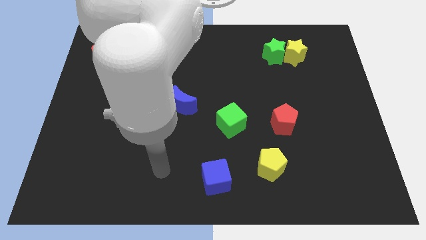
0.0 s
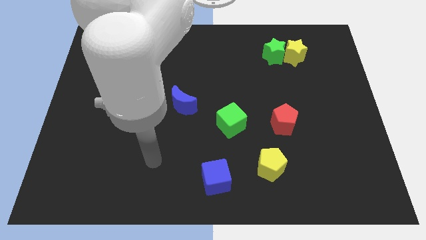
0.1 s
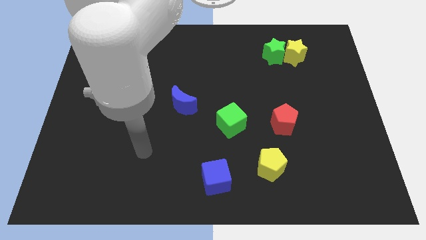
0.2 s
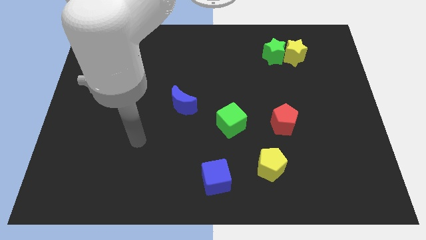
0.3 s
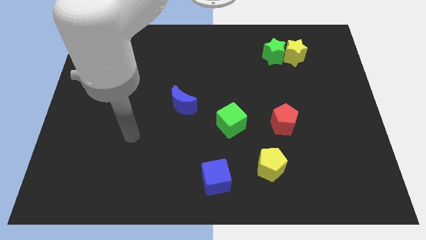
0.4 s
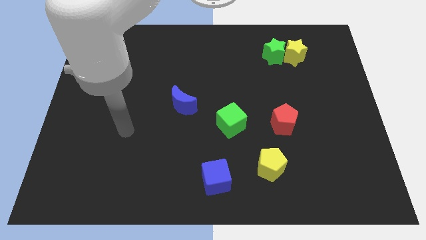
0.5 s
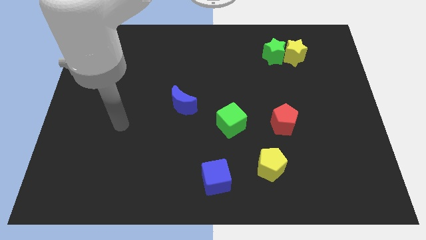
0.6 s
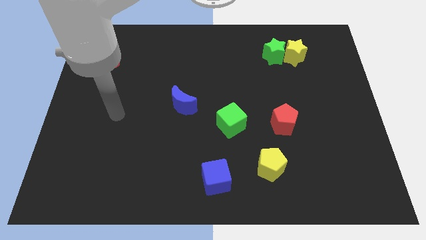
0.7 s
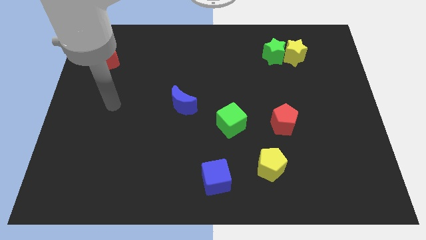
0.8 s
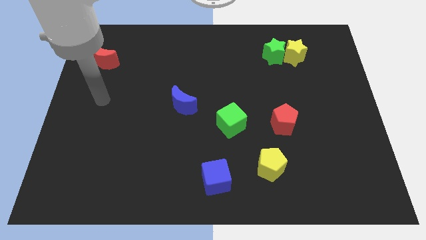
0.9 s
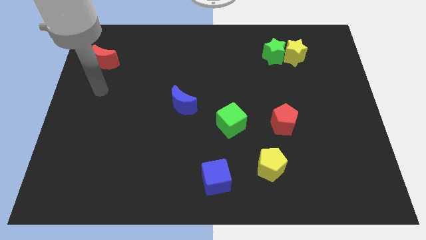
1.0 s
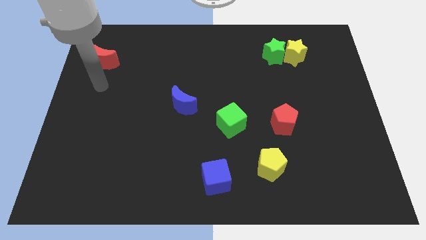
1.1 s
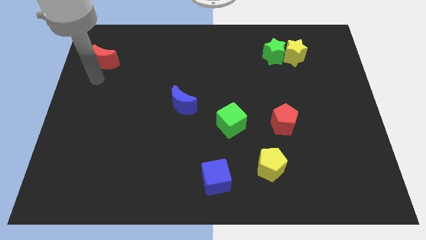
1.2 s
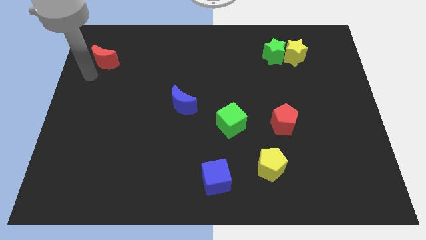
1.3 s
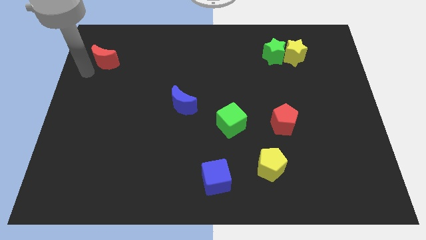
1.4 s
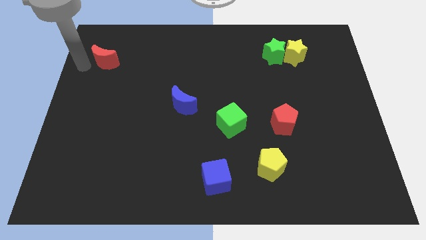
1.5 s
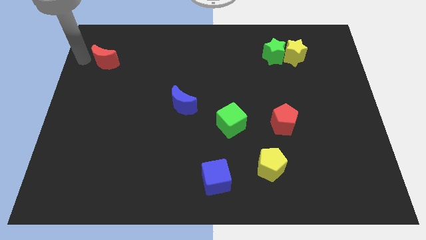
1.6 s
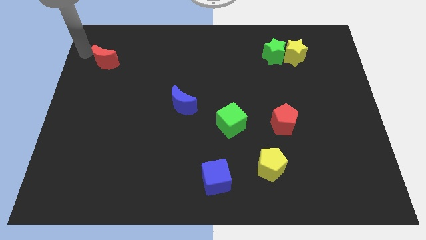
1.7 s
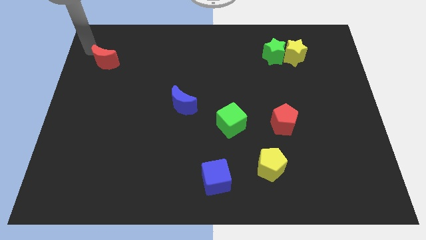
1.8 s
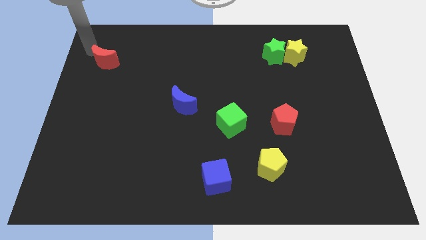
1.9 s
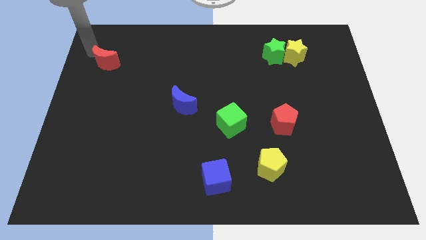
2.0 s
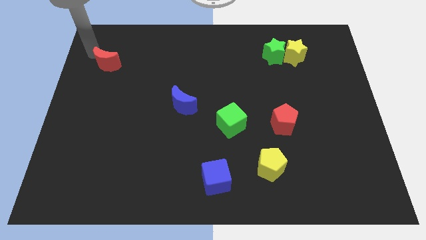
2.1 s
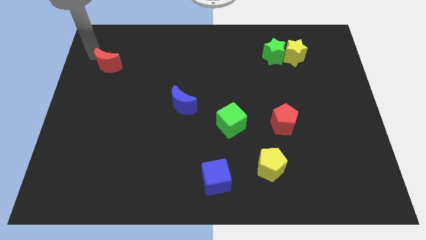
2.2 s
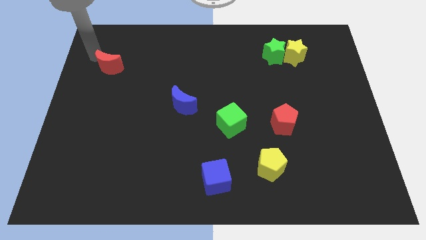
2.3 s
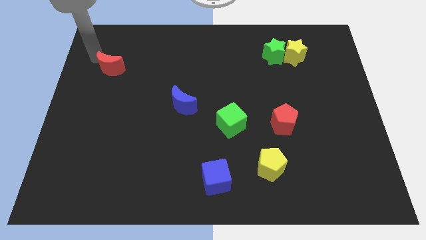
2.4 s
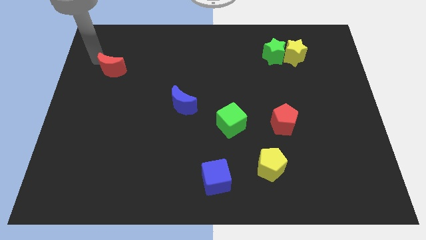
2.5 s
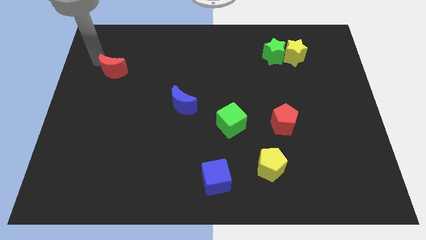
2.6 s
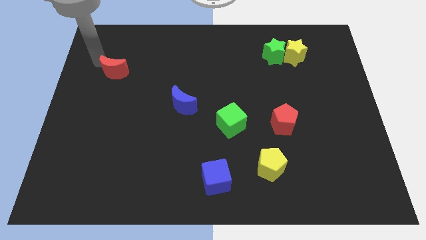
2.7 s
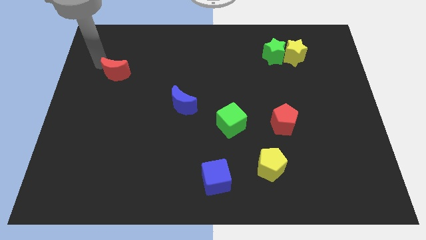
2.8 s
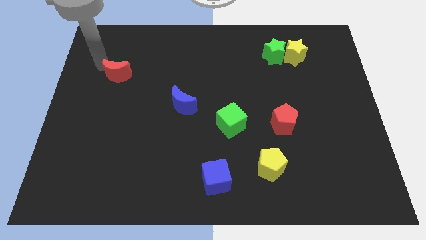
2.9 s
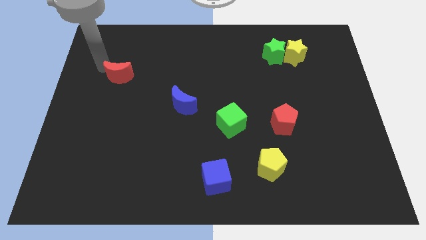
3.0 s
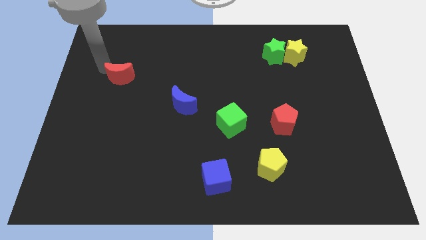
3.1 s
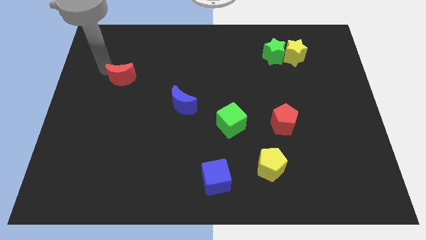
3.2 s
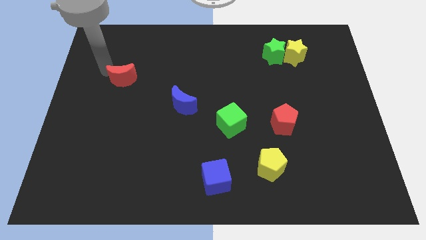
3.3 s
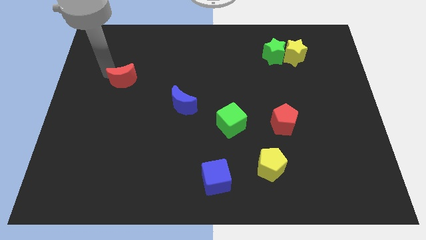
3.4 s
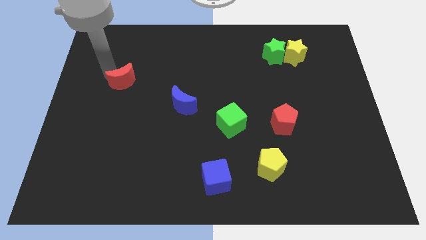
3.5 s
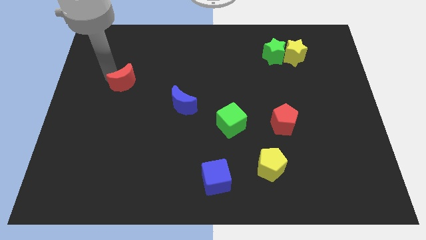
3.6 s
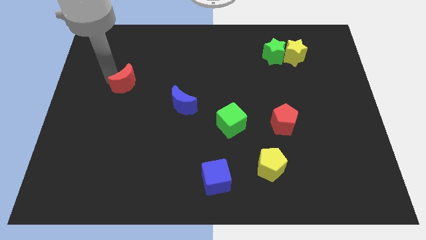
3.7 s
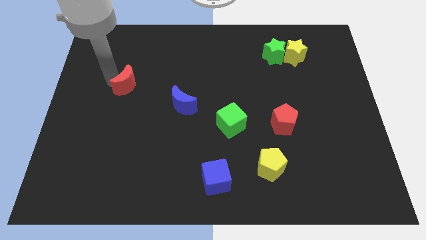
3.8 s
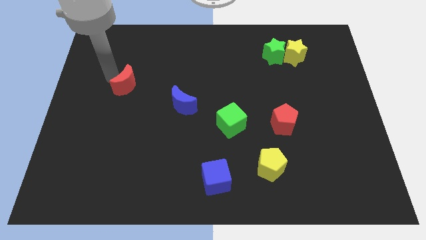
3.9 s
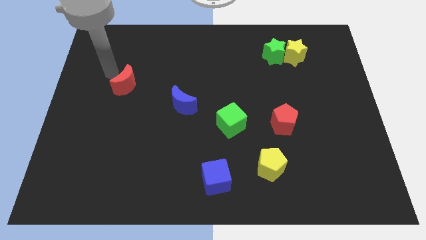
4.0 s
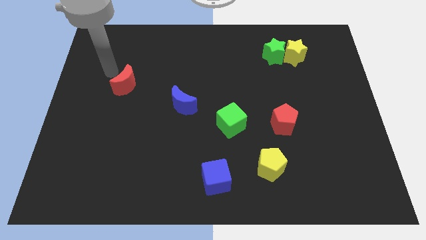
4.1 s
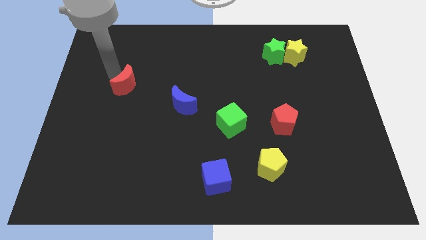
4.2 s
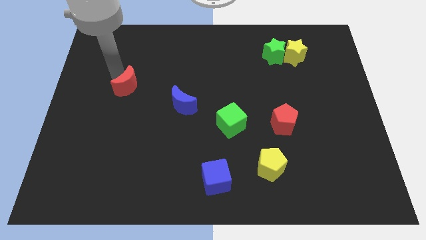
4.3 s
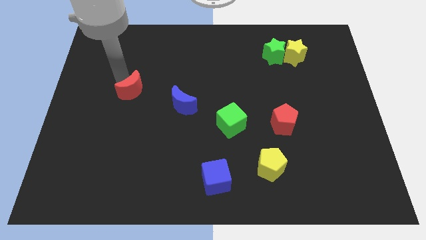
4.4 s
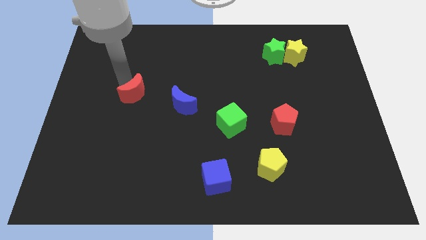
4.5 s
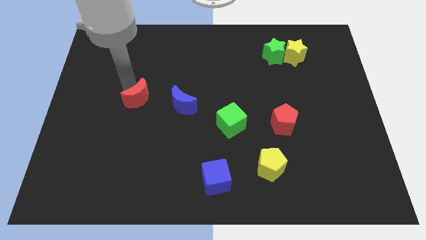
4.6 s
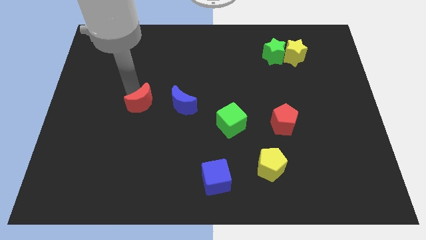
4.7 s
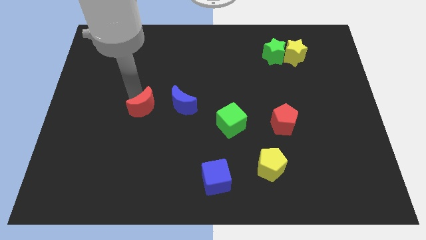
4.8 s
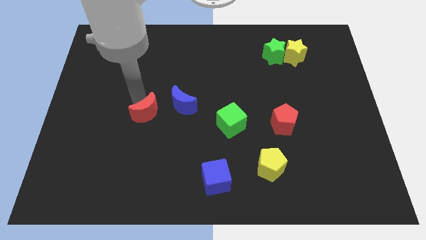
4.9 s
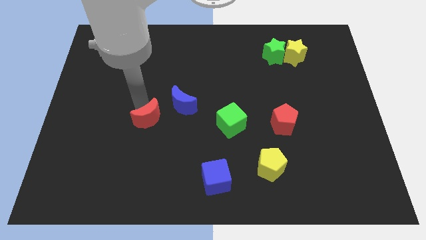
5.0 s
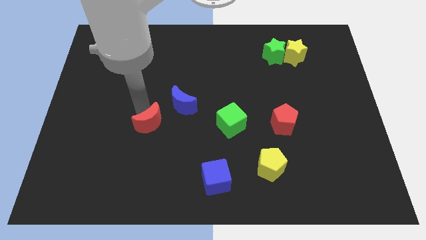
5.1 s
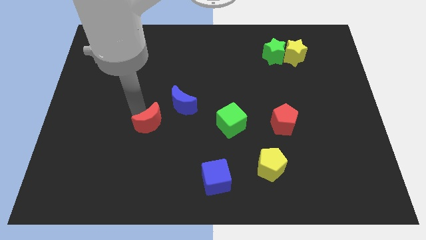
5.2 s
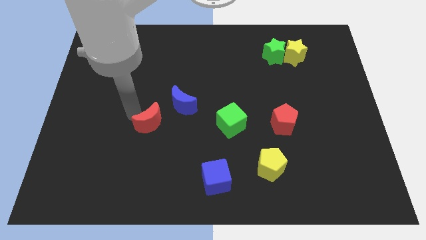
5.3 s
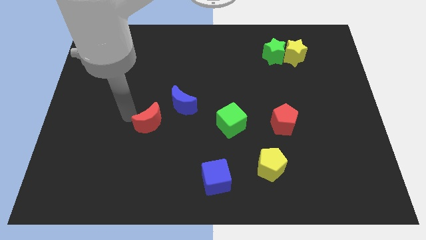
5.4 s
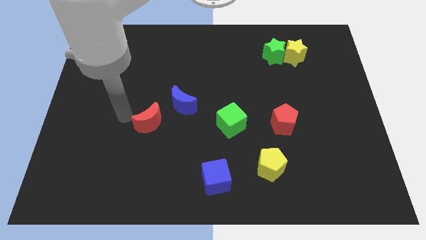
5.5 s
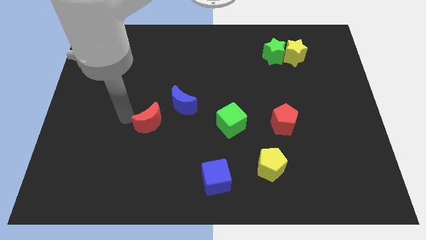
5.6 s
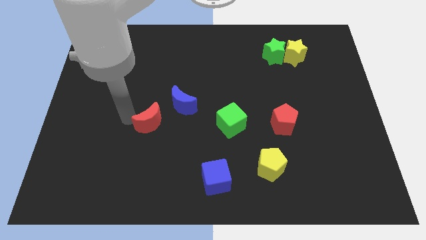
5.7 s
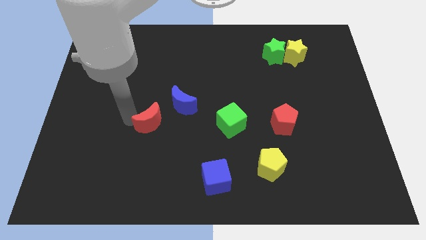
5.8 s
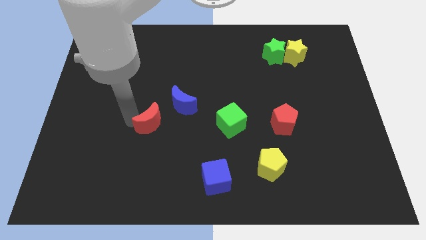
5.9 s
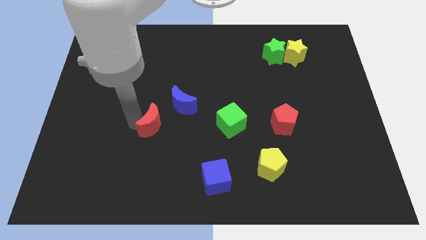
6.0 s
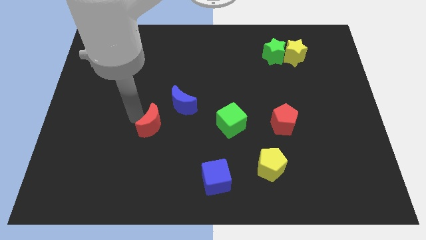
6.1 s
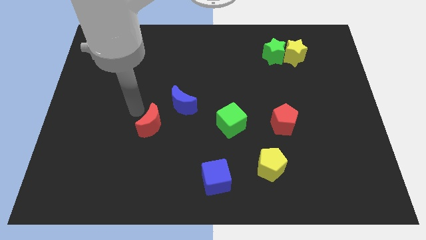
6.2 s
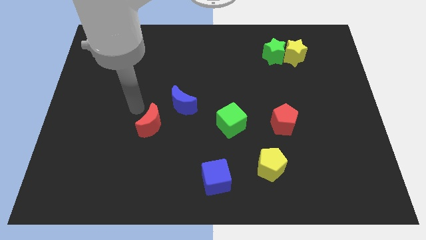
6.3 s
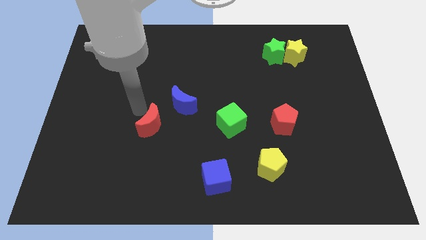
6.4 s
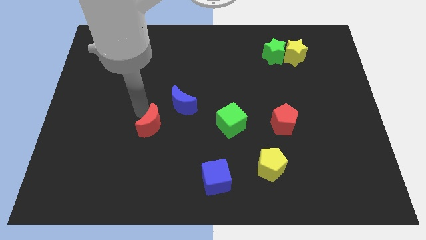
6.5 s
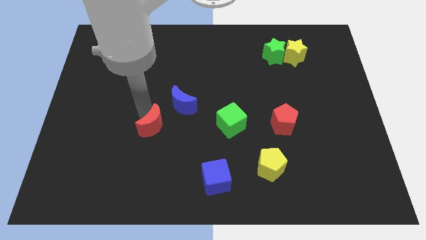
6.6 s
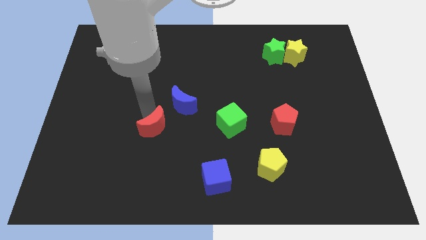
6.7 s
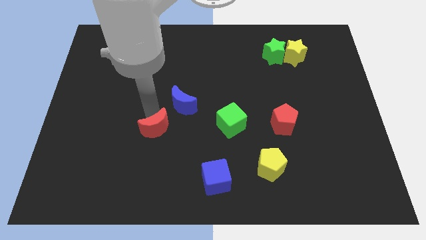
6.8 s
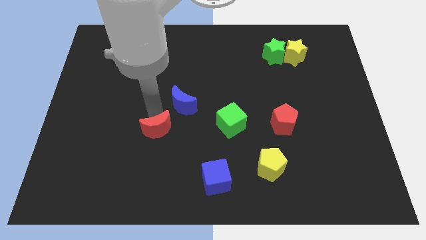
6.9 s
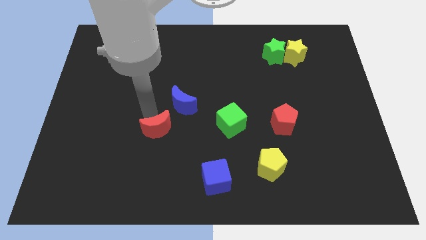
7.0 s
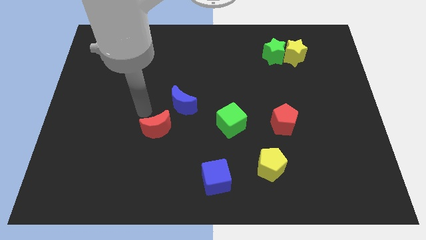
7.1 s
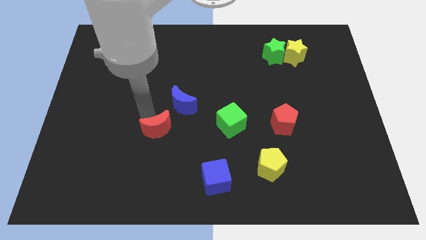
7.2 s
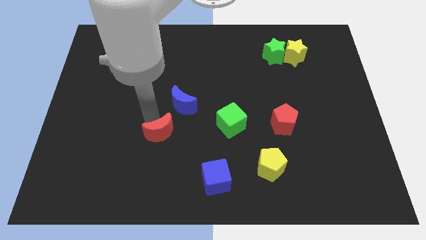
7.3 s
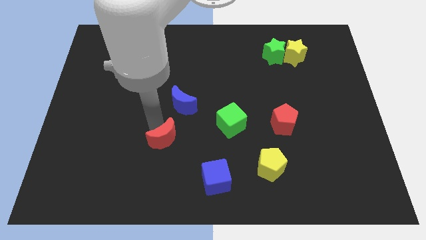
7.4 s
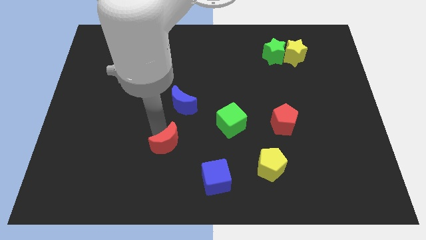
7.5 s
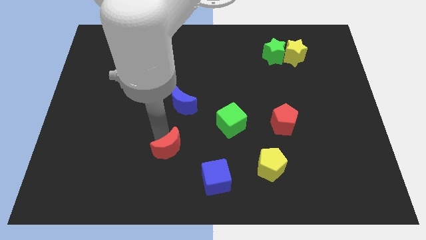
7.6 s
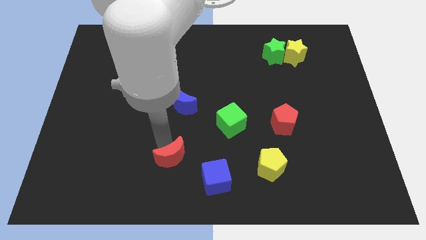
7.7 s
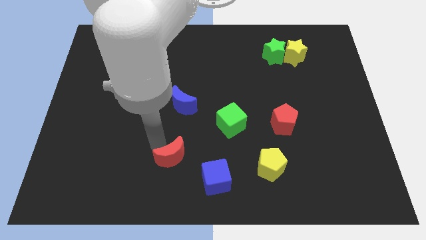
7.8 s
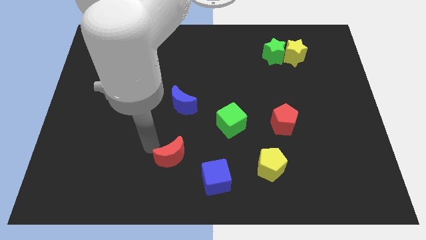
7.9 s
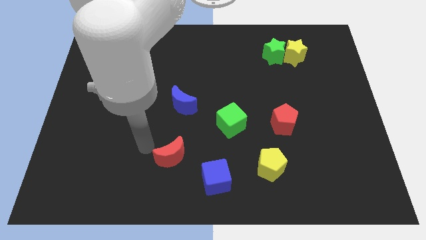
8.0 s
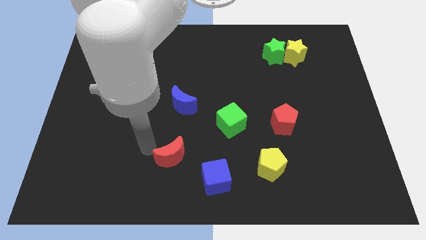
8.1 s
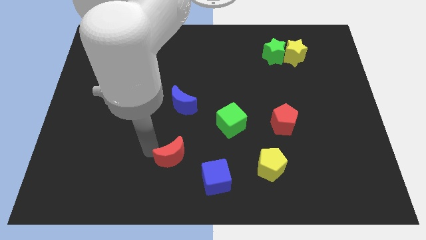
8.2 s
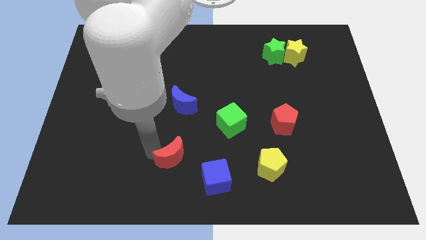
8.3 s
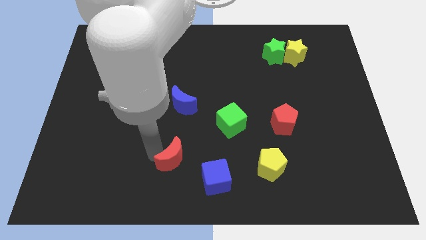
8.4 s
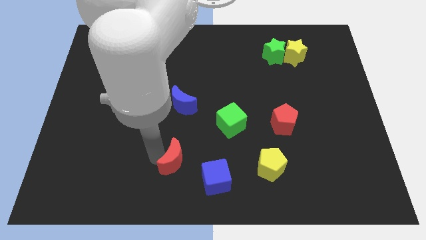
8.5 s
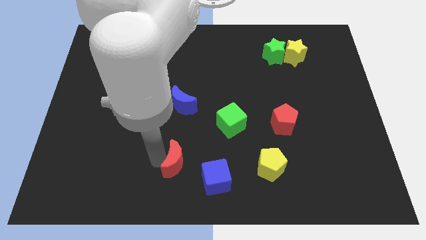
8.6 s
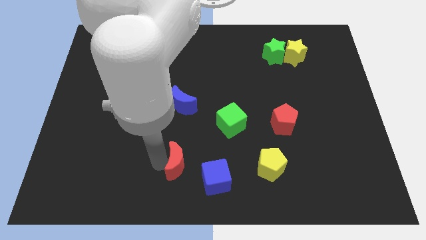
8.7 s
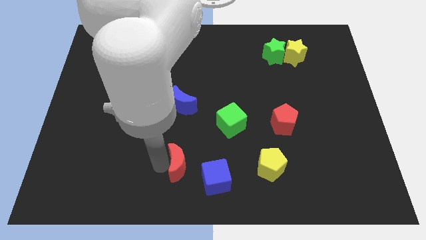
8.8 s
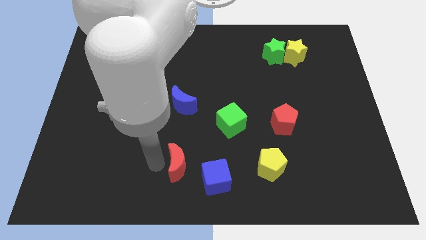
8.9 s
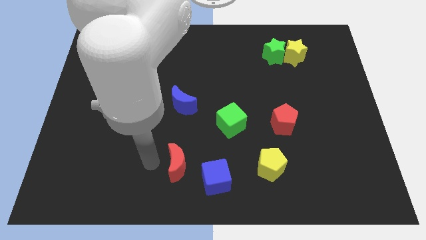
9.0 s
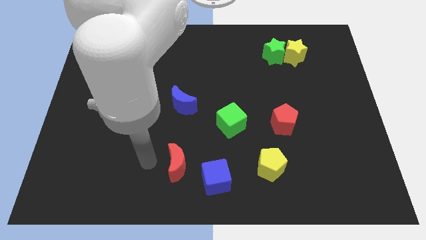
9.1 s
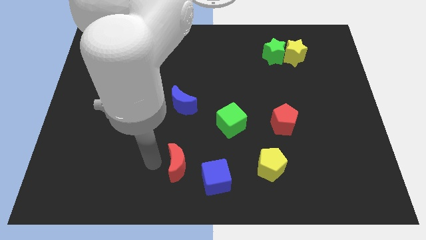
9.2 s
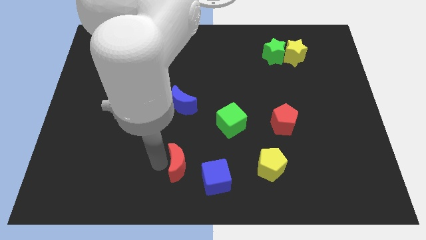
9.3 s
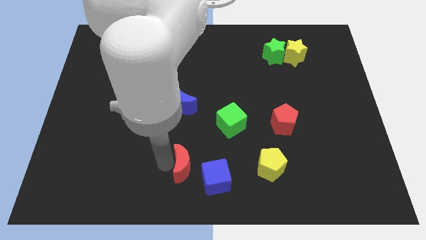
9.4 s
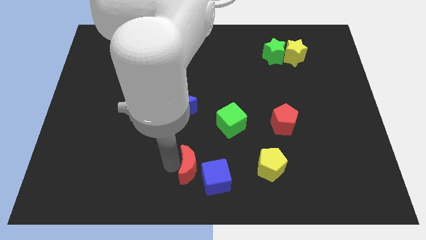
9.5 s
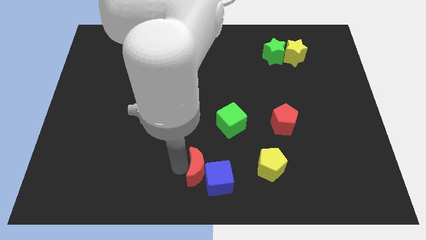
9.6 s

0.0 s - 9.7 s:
slide the red moon to the left side of the yellow pentagon
